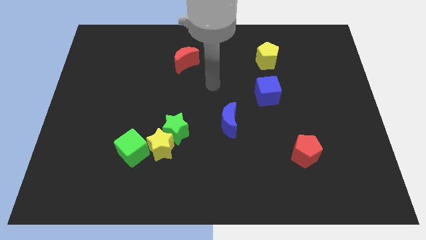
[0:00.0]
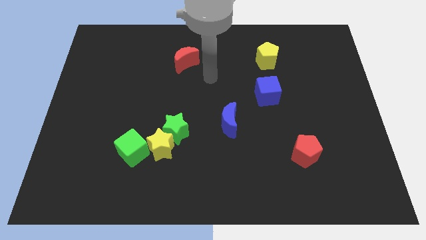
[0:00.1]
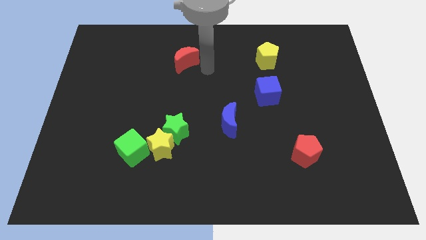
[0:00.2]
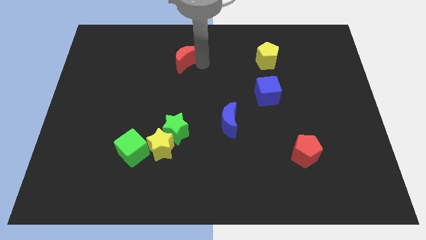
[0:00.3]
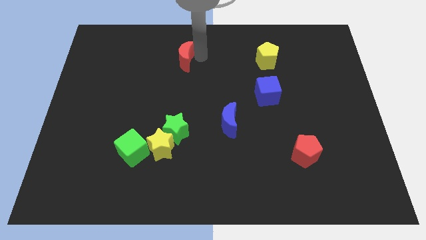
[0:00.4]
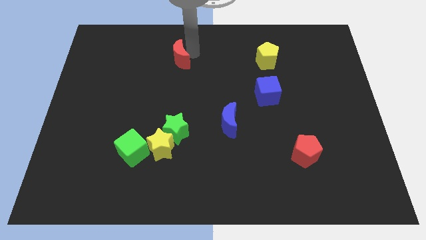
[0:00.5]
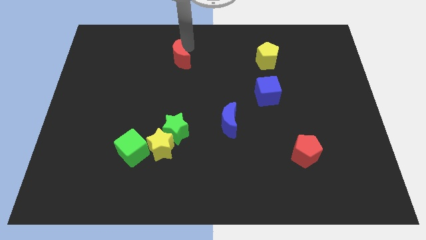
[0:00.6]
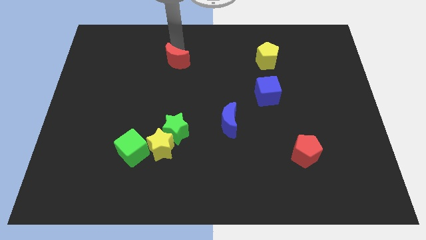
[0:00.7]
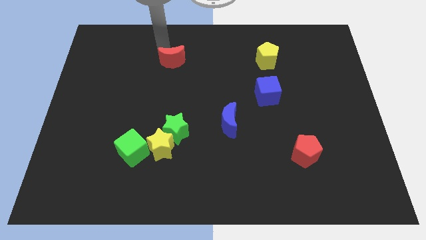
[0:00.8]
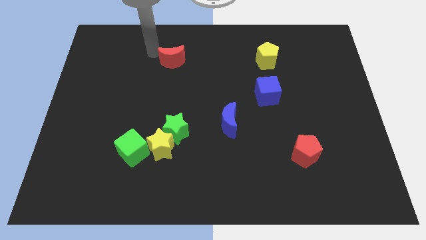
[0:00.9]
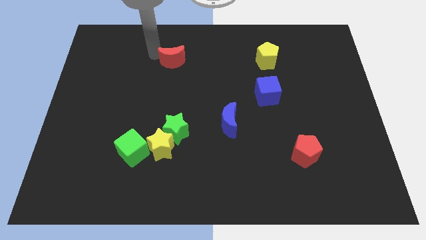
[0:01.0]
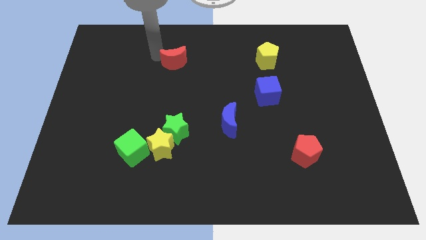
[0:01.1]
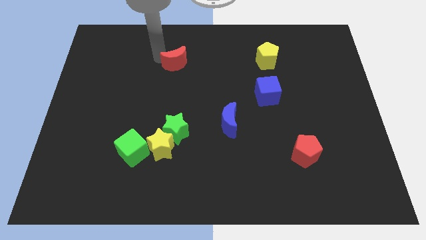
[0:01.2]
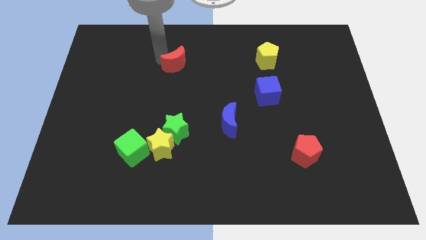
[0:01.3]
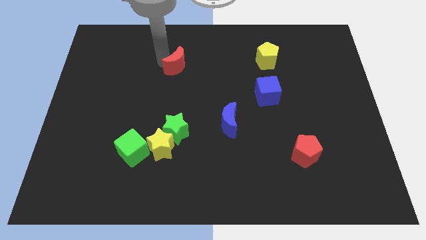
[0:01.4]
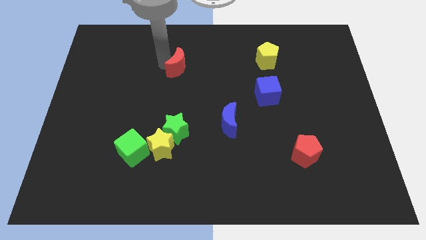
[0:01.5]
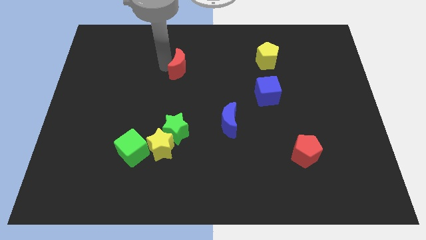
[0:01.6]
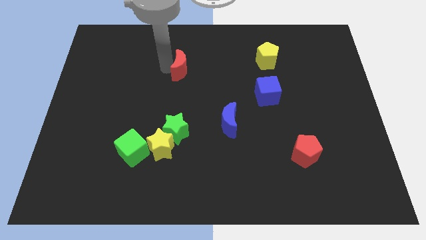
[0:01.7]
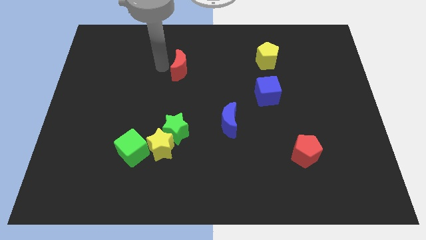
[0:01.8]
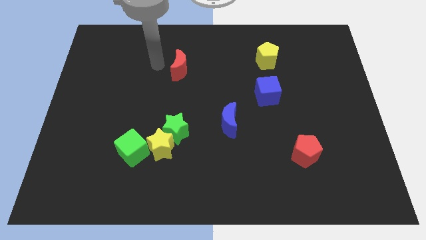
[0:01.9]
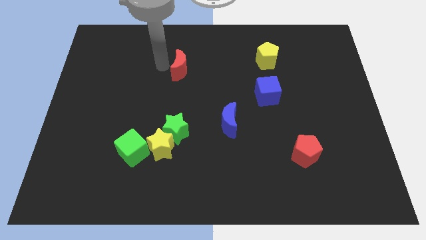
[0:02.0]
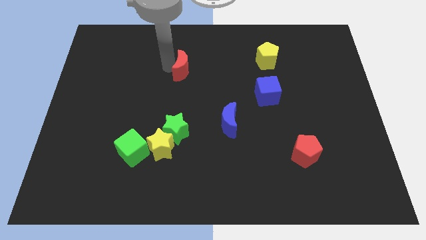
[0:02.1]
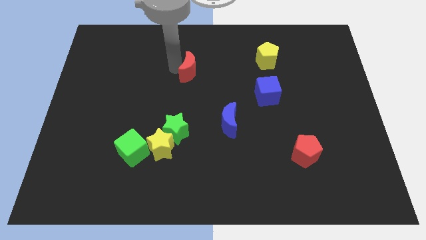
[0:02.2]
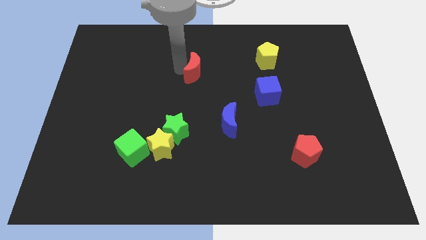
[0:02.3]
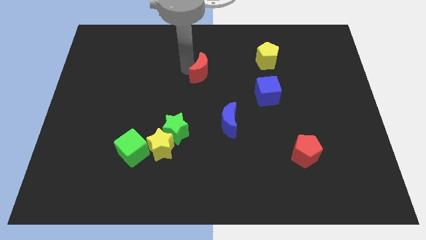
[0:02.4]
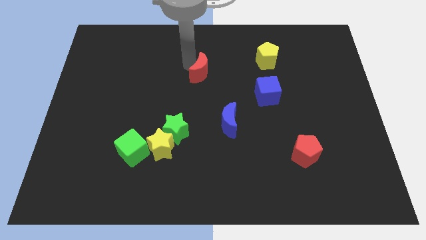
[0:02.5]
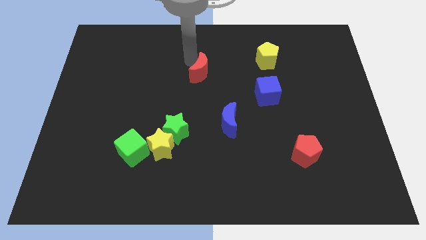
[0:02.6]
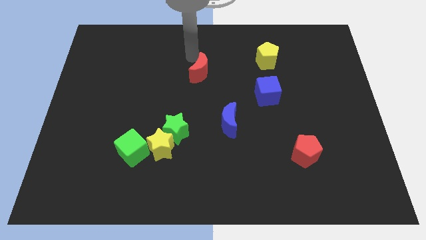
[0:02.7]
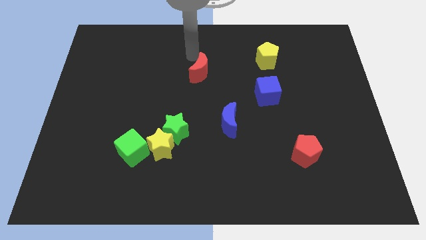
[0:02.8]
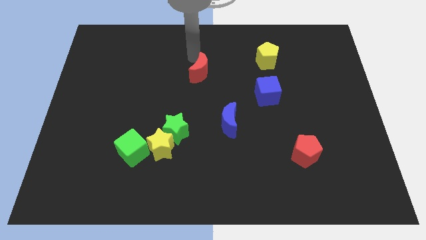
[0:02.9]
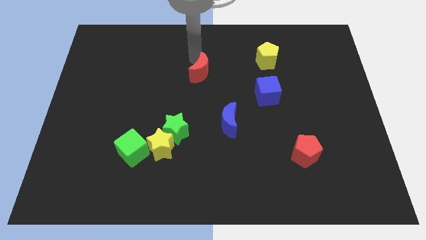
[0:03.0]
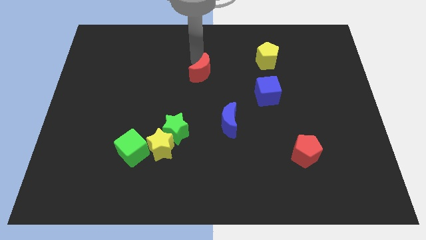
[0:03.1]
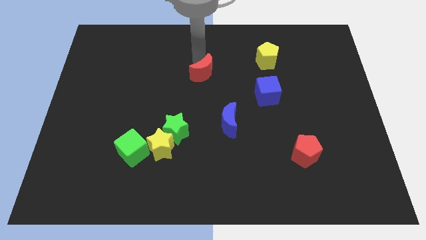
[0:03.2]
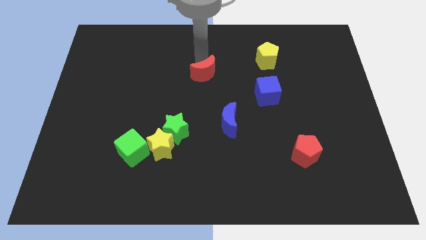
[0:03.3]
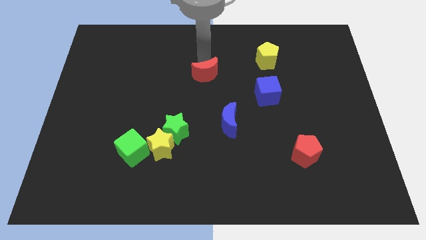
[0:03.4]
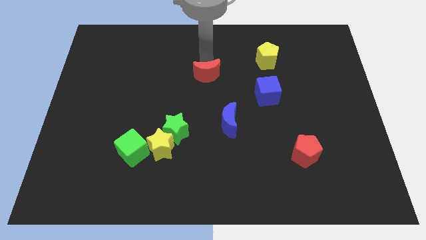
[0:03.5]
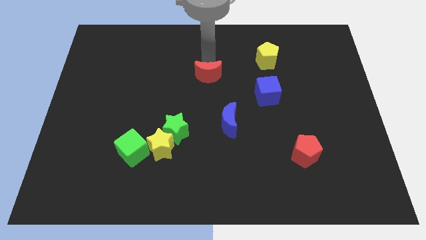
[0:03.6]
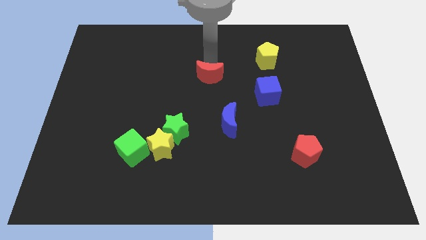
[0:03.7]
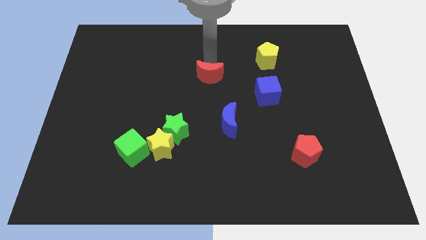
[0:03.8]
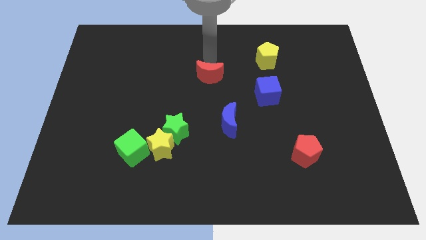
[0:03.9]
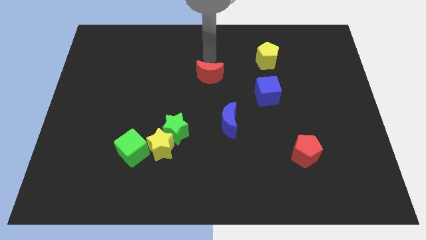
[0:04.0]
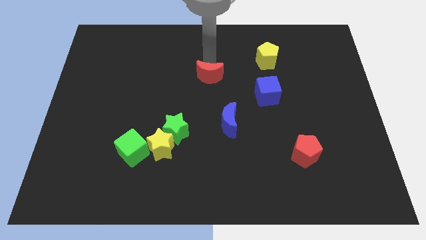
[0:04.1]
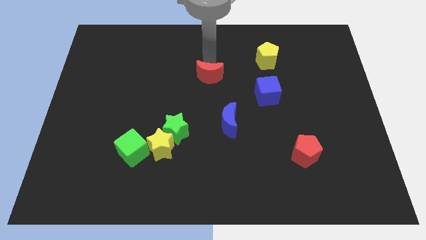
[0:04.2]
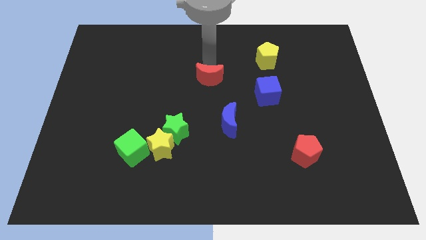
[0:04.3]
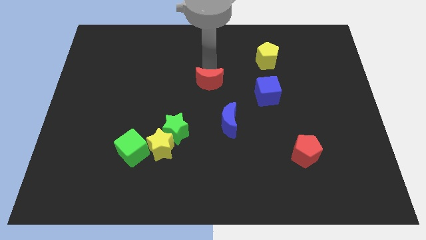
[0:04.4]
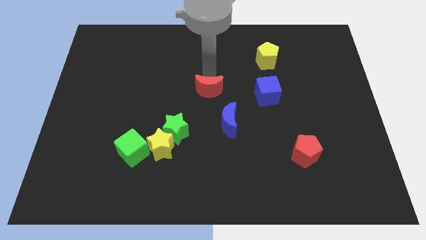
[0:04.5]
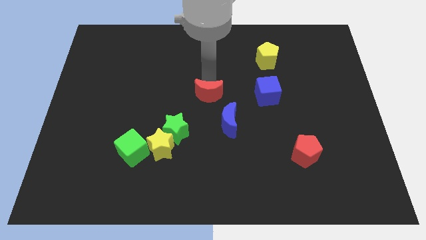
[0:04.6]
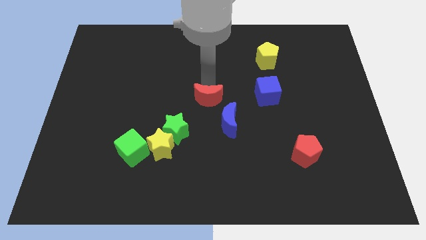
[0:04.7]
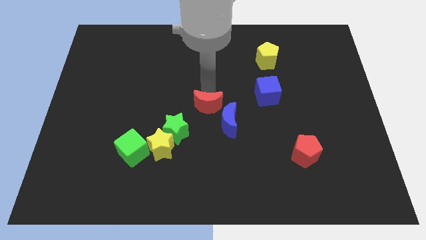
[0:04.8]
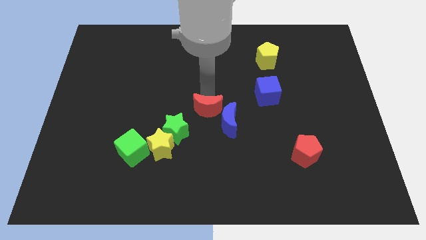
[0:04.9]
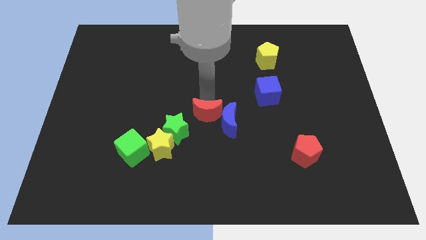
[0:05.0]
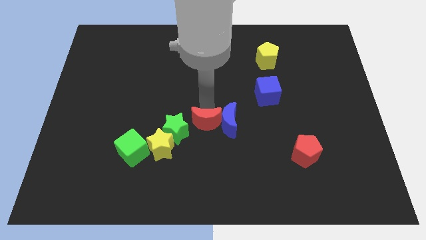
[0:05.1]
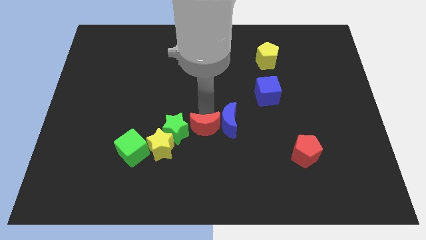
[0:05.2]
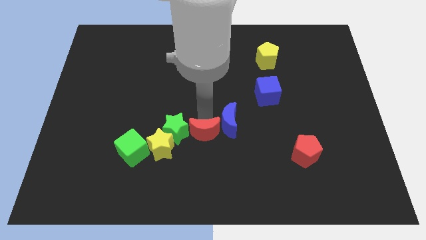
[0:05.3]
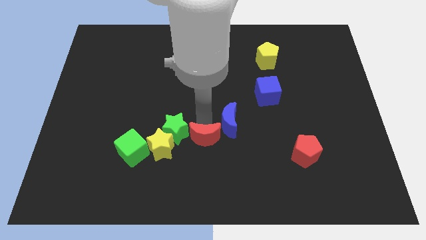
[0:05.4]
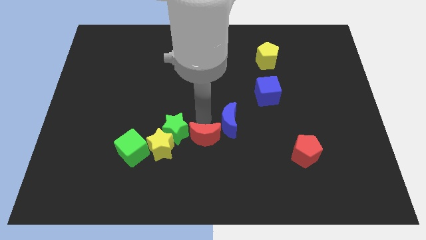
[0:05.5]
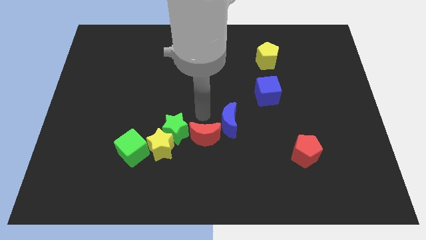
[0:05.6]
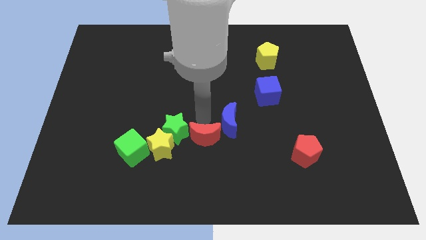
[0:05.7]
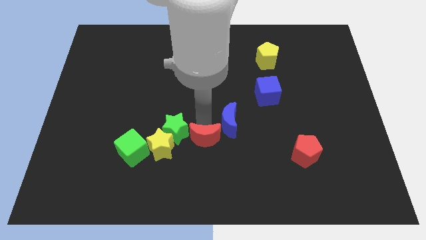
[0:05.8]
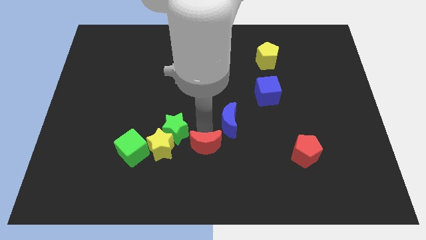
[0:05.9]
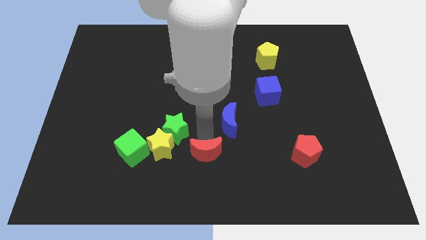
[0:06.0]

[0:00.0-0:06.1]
put the red moon to the bottom side

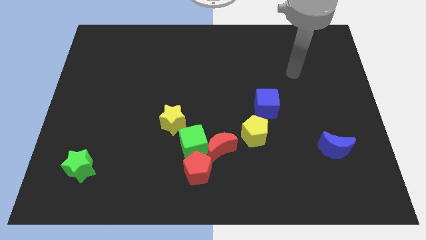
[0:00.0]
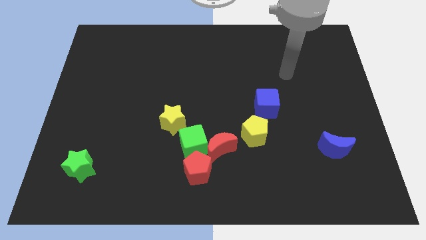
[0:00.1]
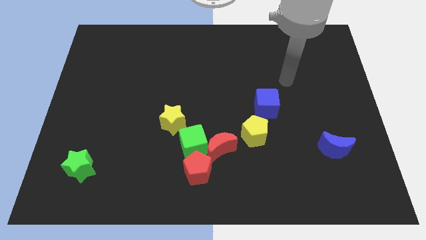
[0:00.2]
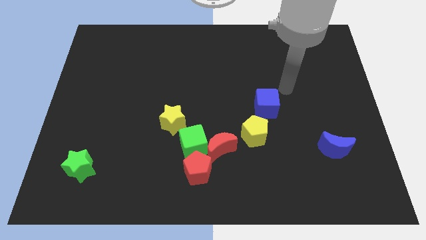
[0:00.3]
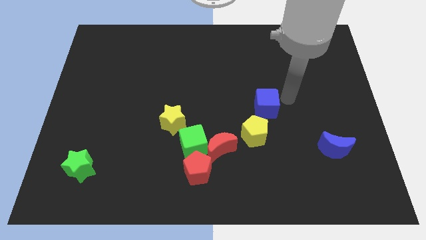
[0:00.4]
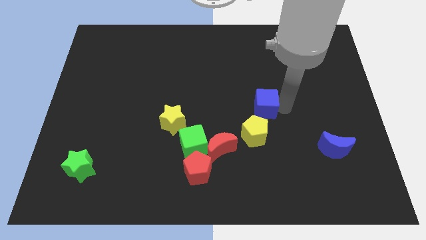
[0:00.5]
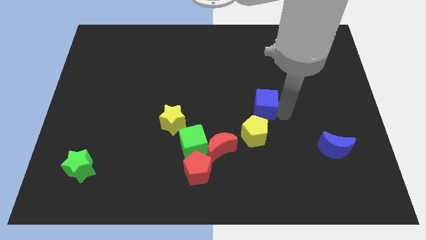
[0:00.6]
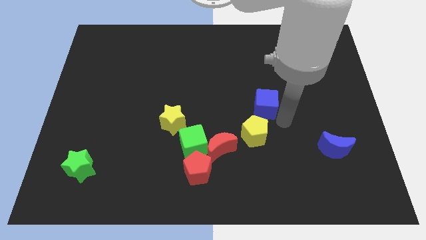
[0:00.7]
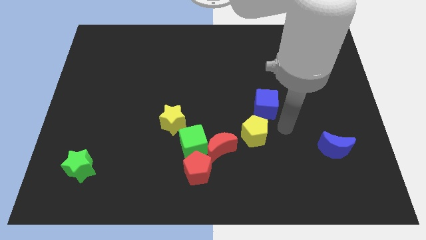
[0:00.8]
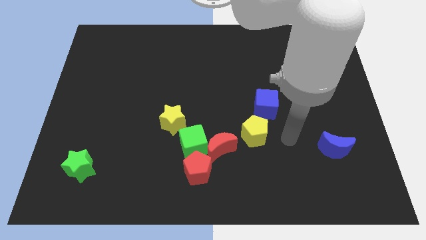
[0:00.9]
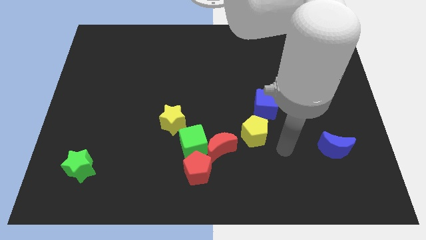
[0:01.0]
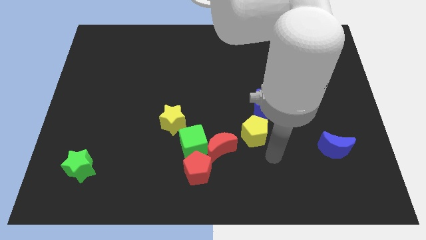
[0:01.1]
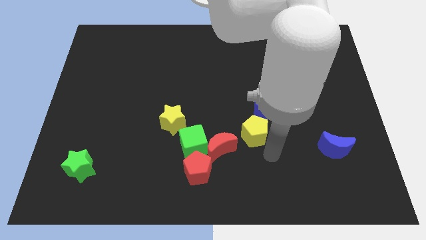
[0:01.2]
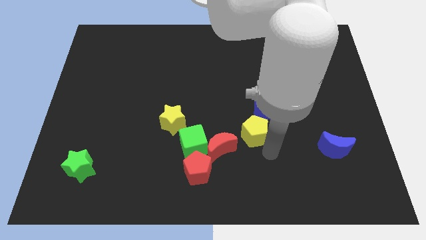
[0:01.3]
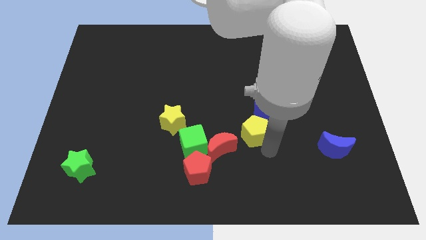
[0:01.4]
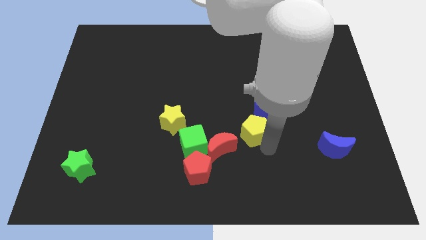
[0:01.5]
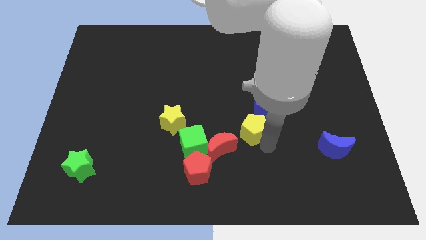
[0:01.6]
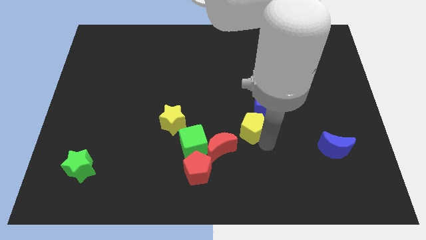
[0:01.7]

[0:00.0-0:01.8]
move the yellow pentagon to the middle
